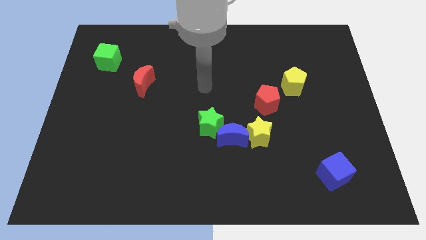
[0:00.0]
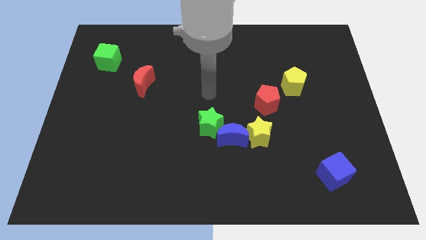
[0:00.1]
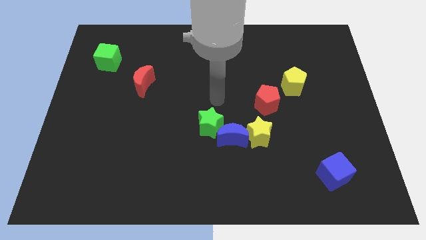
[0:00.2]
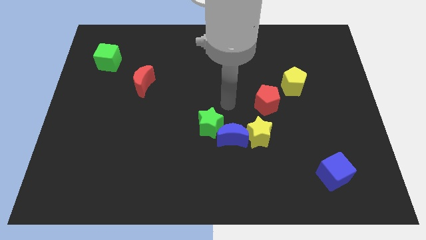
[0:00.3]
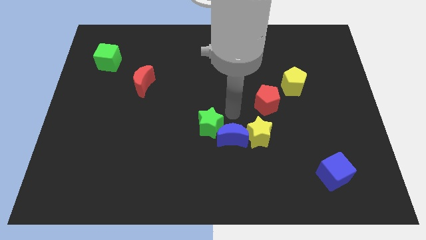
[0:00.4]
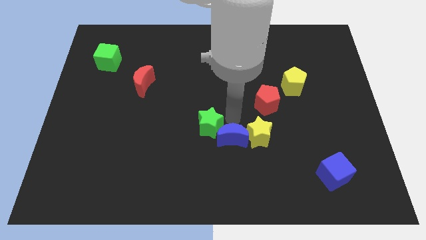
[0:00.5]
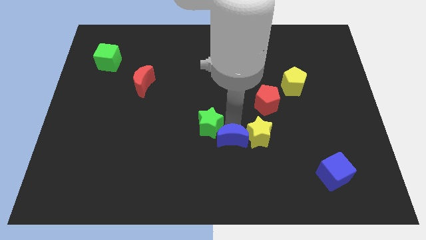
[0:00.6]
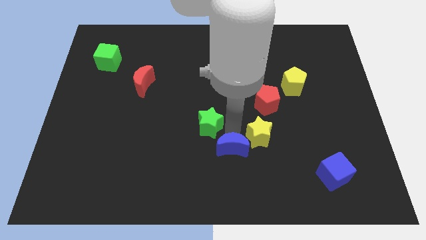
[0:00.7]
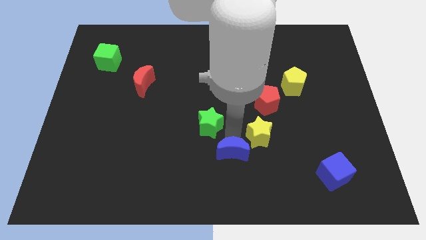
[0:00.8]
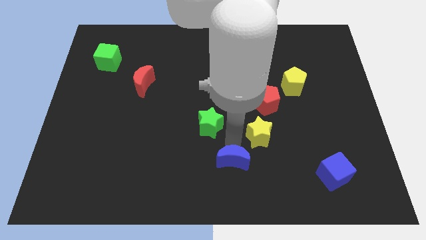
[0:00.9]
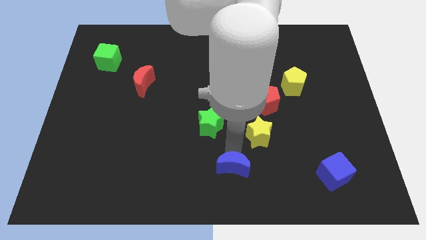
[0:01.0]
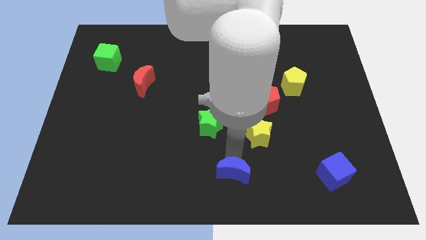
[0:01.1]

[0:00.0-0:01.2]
pull the blue moon apart from the yellow star and green star

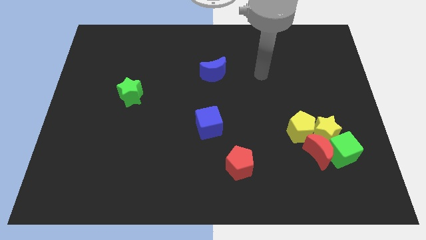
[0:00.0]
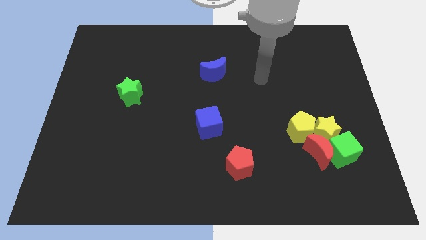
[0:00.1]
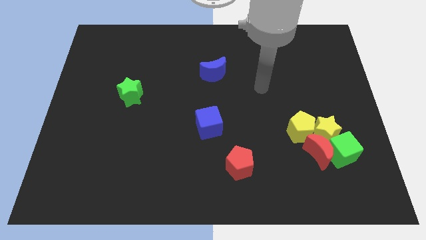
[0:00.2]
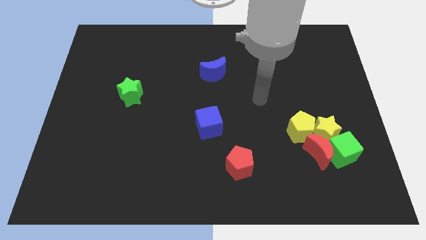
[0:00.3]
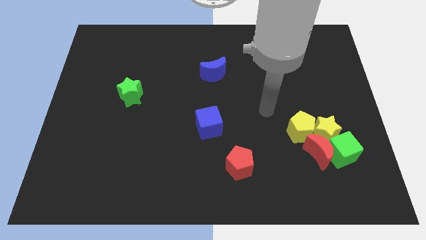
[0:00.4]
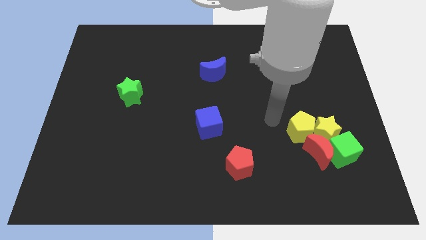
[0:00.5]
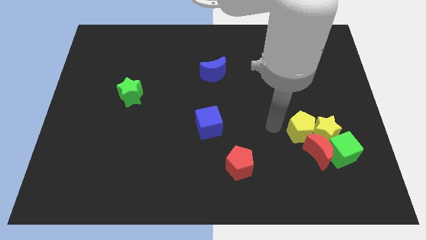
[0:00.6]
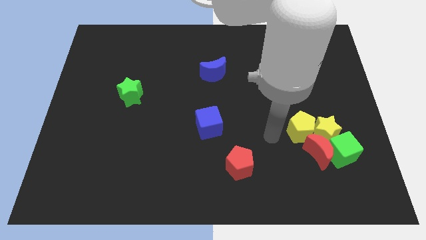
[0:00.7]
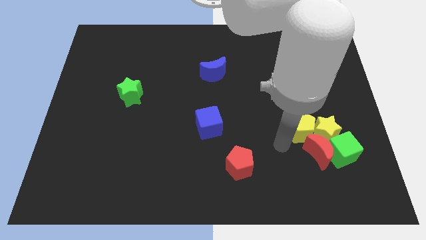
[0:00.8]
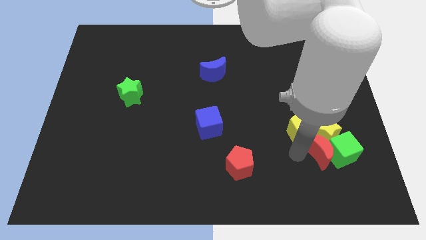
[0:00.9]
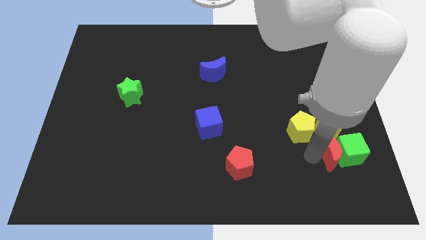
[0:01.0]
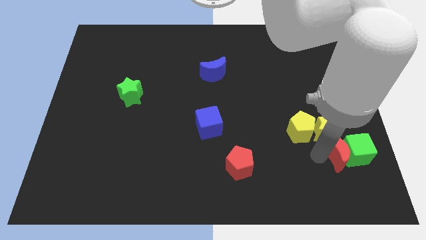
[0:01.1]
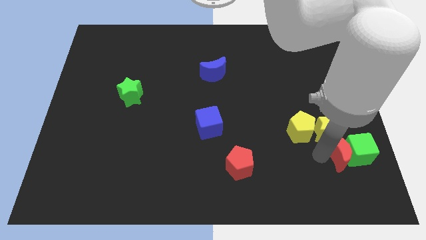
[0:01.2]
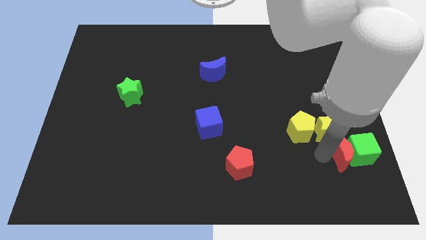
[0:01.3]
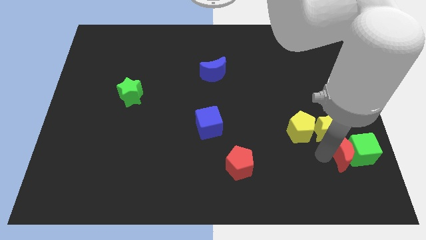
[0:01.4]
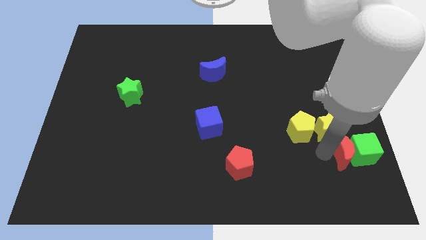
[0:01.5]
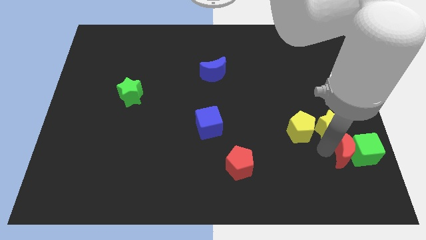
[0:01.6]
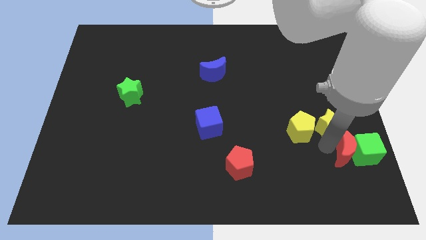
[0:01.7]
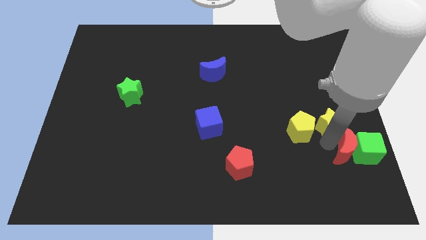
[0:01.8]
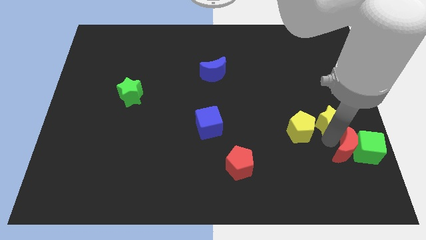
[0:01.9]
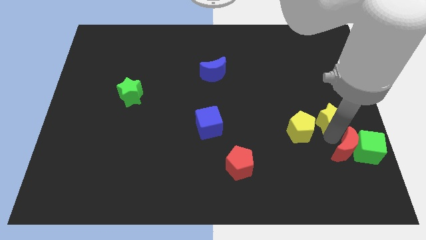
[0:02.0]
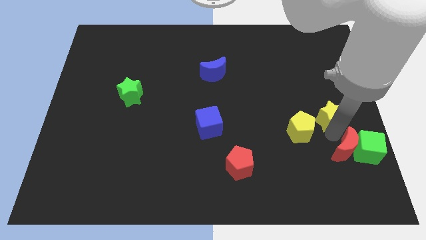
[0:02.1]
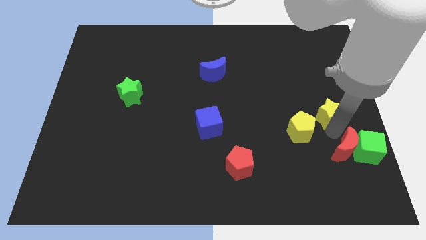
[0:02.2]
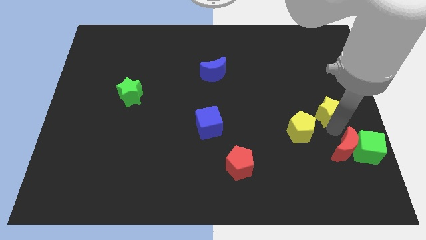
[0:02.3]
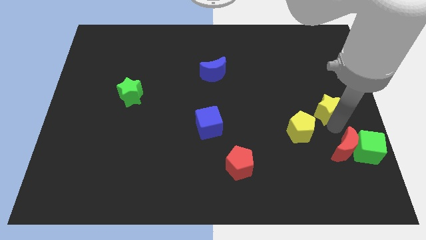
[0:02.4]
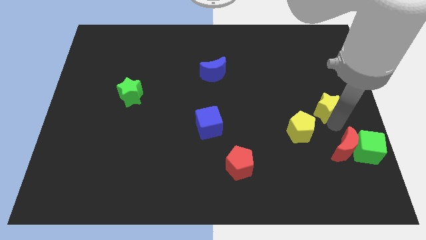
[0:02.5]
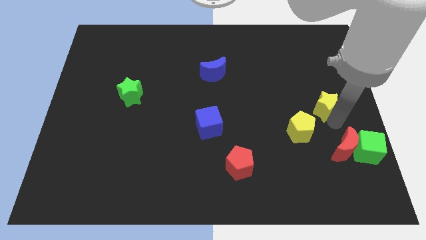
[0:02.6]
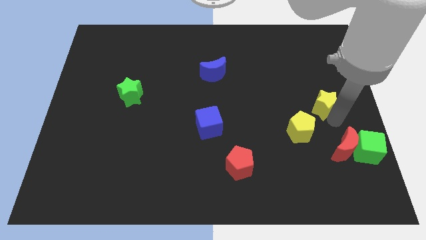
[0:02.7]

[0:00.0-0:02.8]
pull the yellow star apart from the group

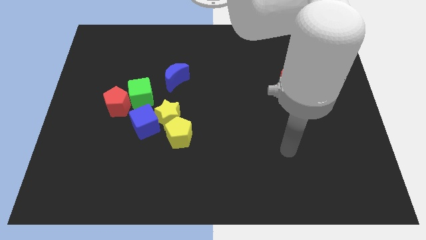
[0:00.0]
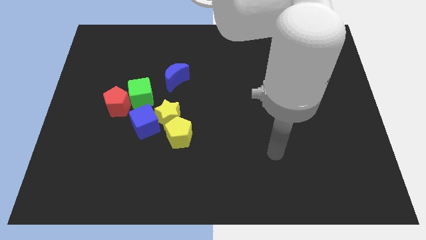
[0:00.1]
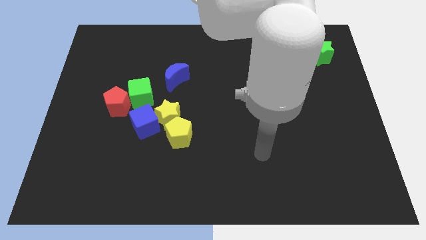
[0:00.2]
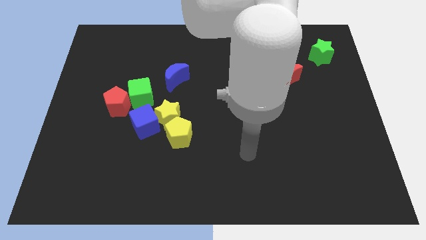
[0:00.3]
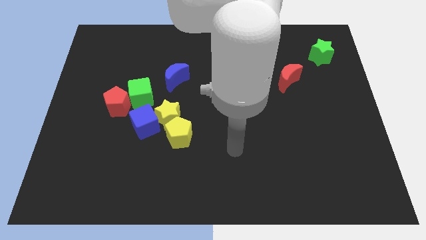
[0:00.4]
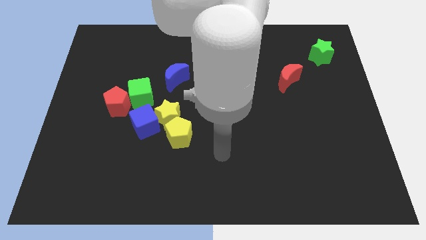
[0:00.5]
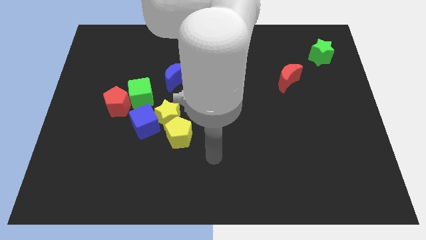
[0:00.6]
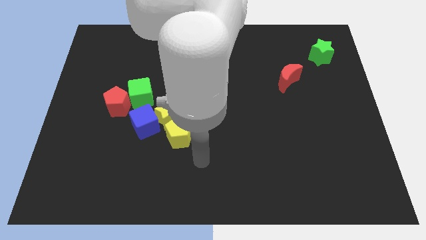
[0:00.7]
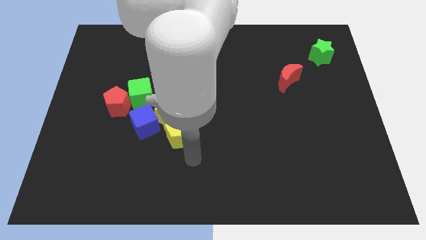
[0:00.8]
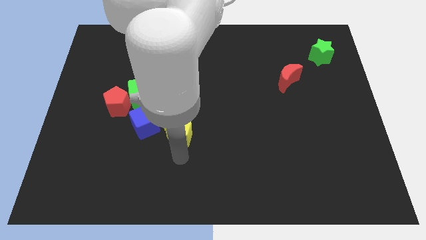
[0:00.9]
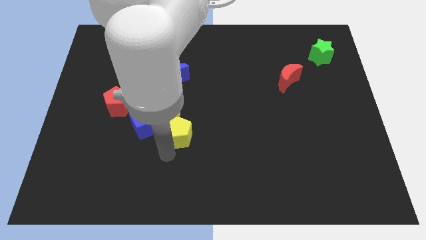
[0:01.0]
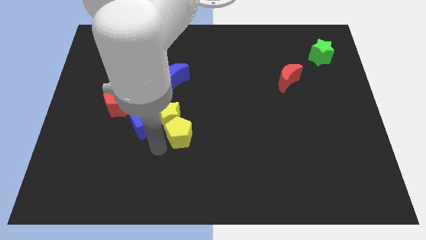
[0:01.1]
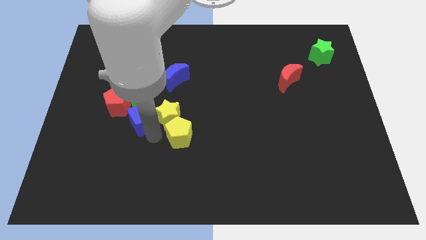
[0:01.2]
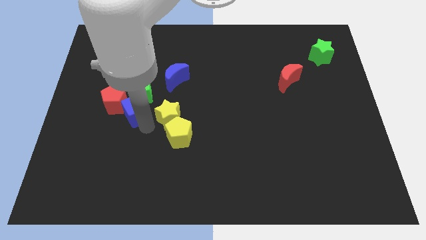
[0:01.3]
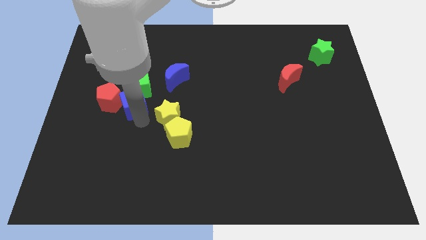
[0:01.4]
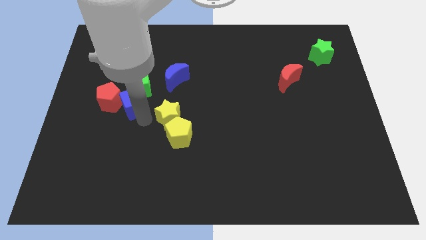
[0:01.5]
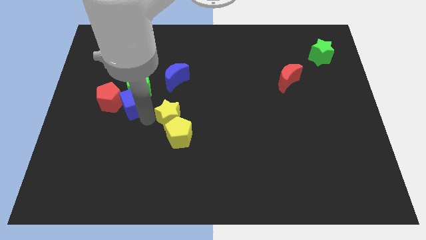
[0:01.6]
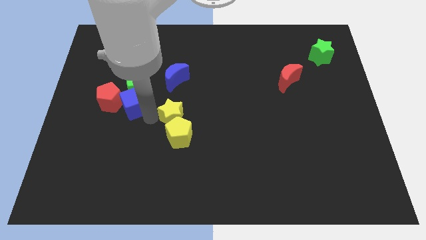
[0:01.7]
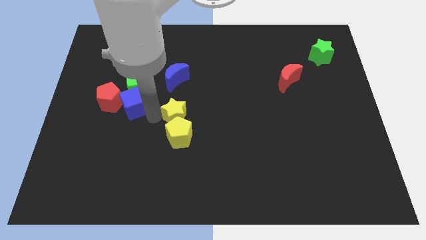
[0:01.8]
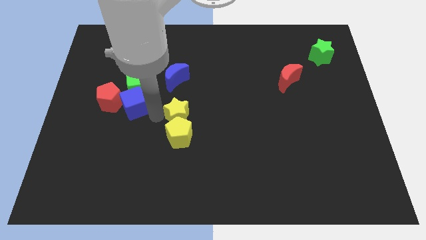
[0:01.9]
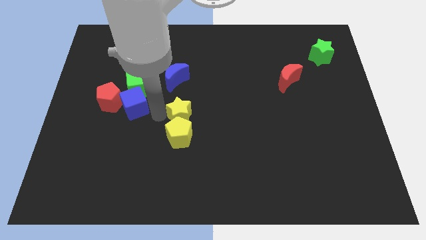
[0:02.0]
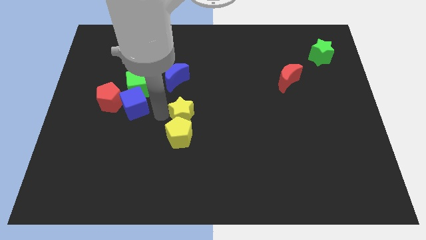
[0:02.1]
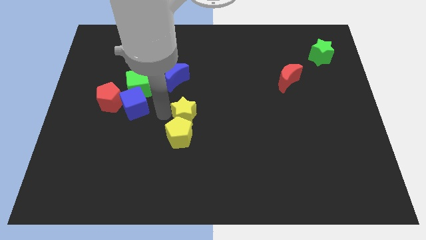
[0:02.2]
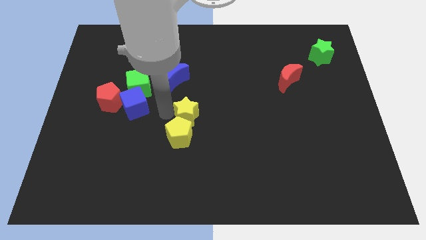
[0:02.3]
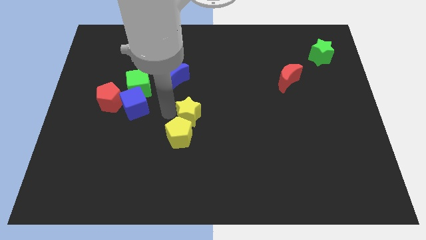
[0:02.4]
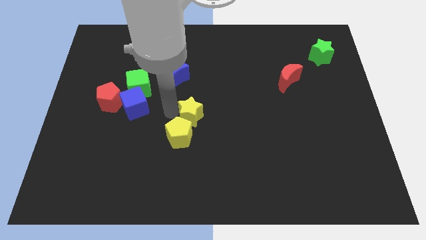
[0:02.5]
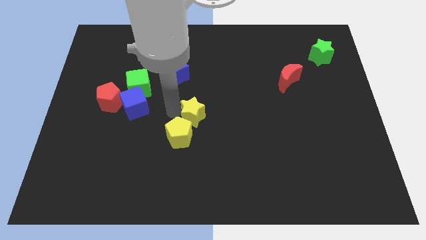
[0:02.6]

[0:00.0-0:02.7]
move the yellow star away from the group

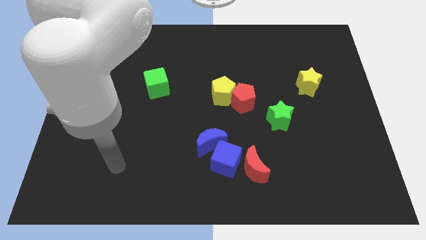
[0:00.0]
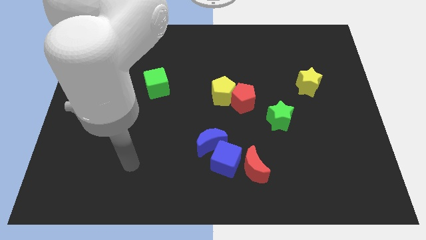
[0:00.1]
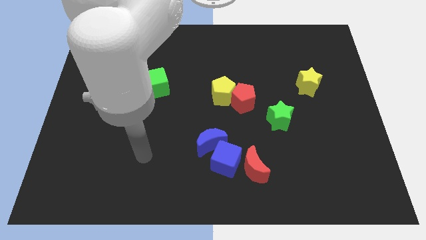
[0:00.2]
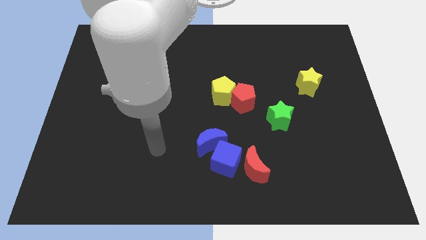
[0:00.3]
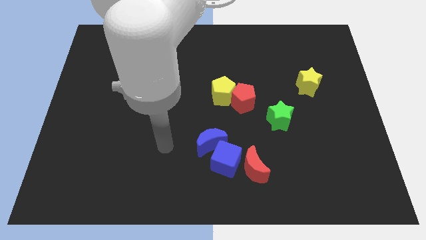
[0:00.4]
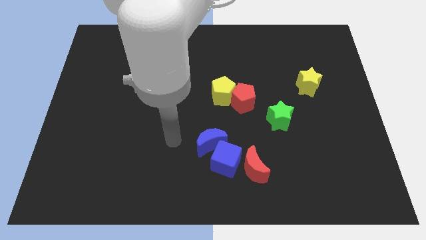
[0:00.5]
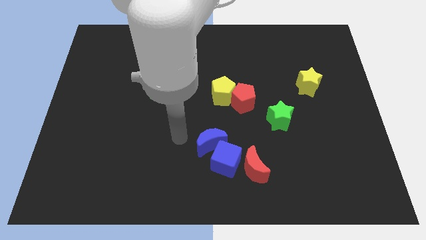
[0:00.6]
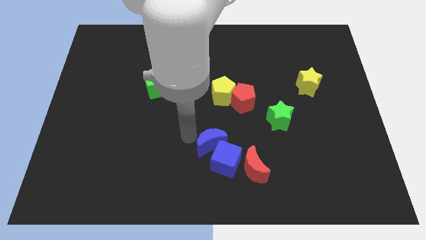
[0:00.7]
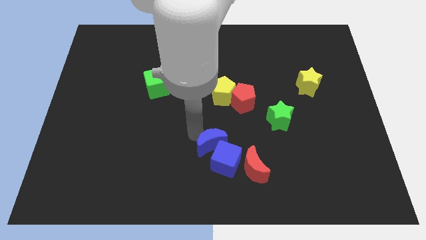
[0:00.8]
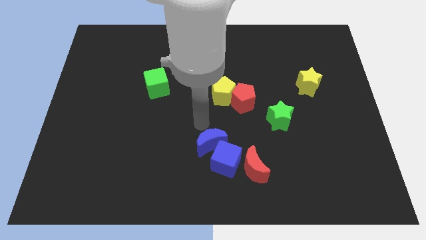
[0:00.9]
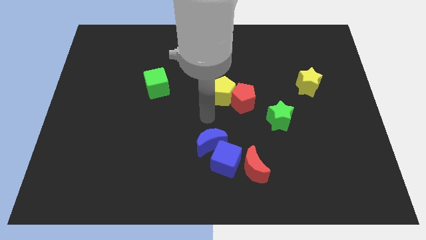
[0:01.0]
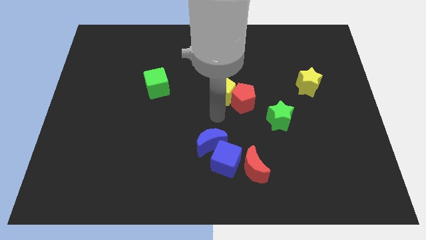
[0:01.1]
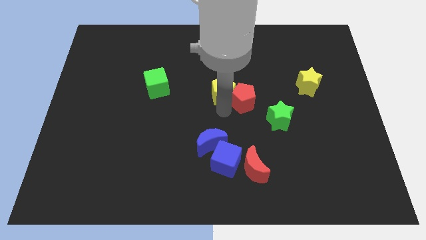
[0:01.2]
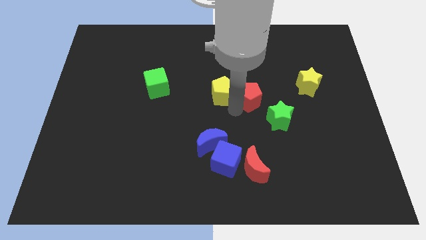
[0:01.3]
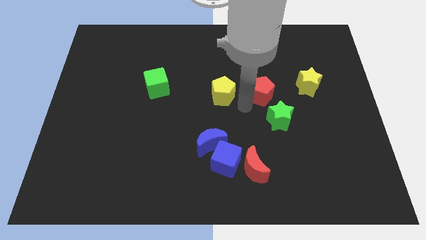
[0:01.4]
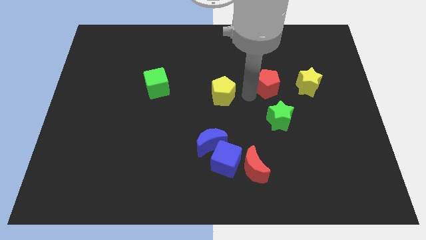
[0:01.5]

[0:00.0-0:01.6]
separate the yellow pentagon from the red pentagon

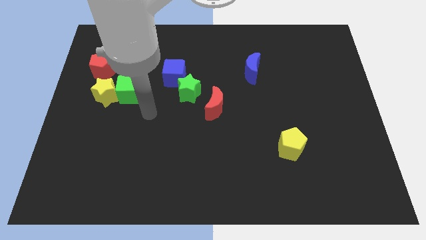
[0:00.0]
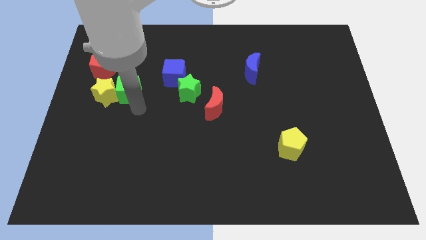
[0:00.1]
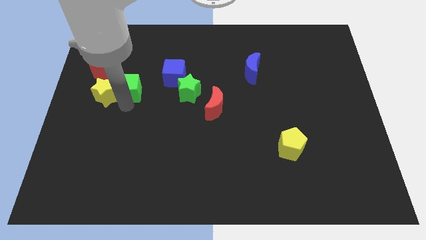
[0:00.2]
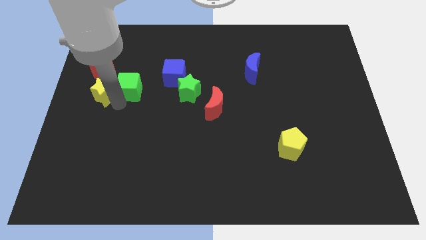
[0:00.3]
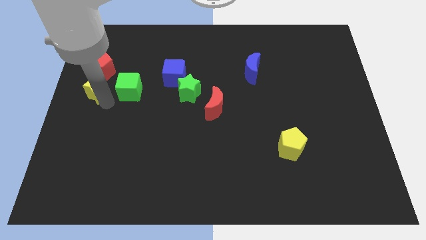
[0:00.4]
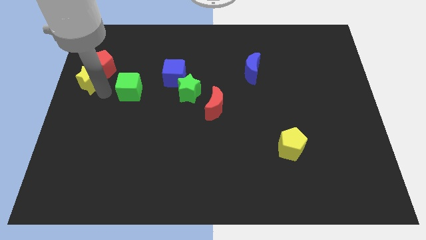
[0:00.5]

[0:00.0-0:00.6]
pull the green cube apart from the yellow star

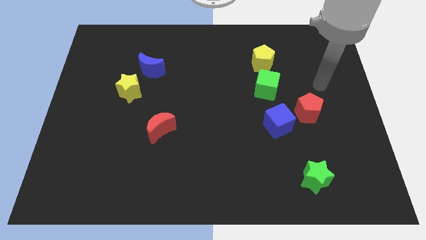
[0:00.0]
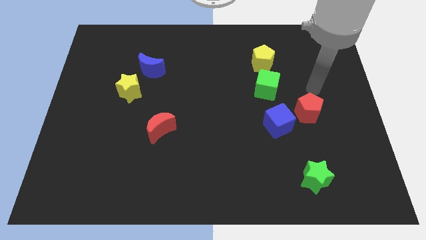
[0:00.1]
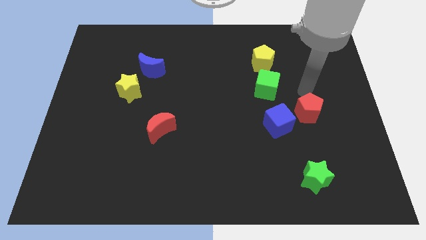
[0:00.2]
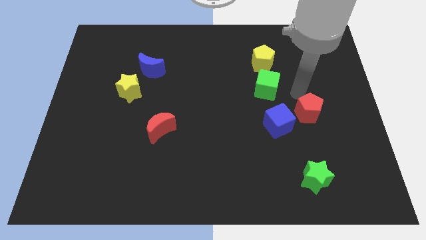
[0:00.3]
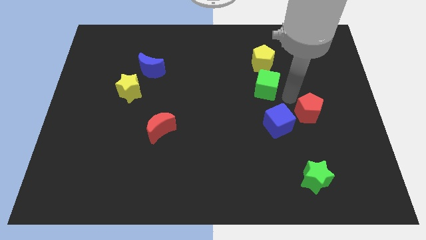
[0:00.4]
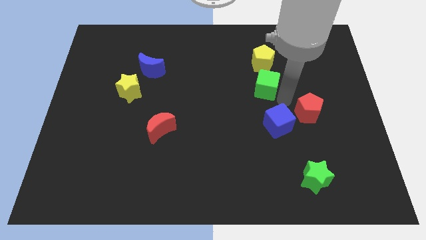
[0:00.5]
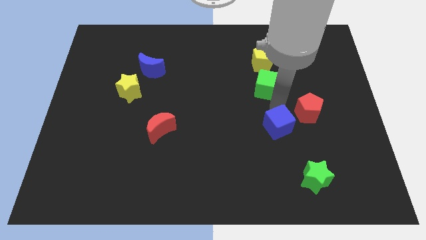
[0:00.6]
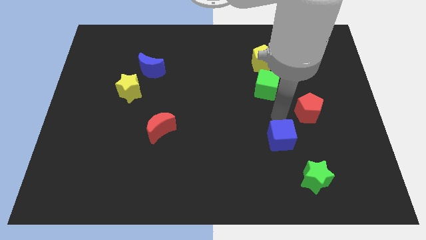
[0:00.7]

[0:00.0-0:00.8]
separate the red pentagon from the blue cube
